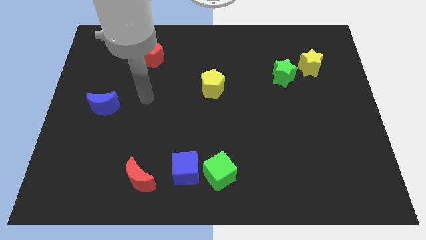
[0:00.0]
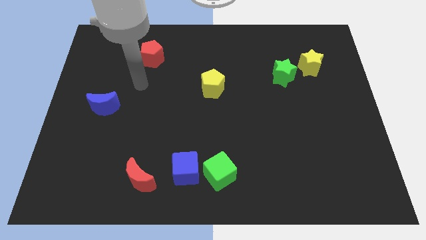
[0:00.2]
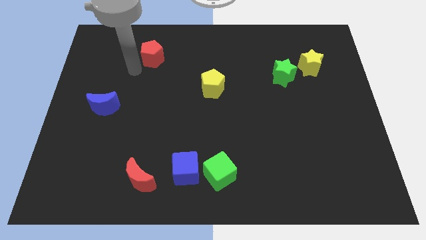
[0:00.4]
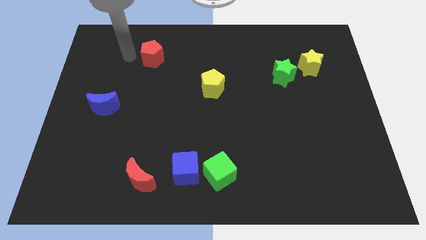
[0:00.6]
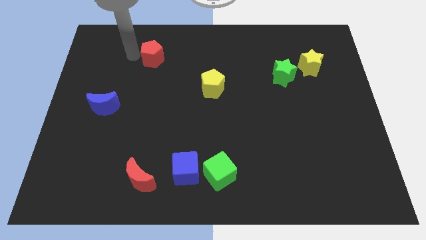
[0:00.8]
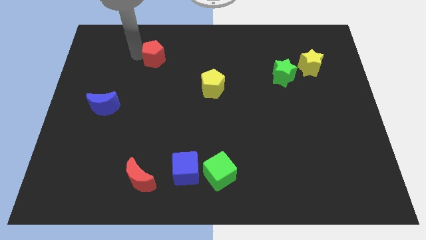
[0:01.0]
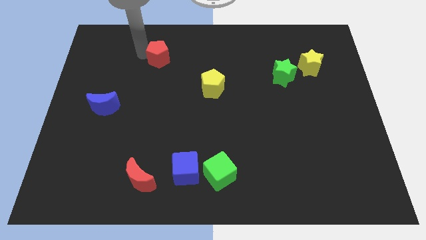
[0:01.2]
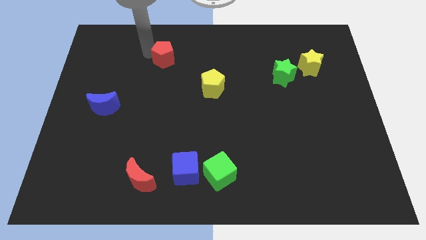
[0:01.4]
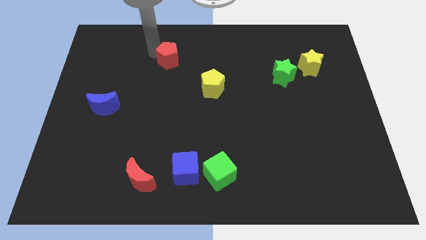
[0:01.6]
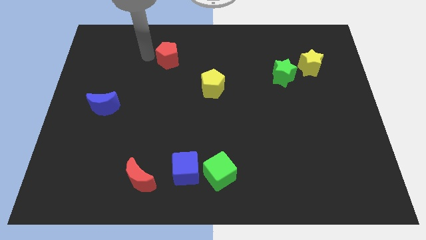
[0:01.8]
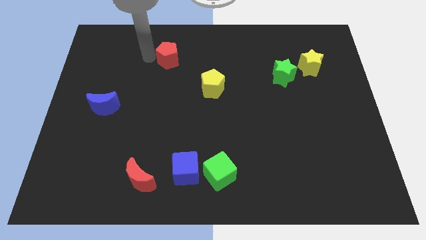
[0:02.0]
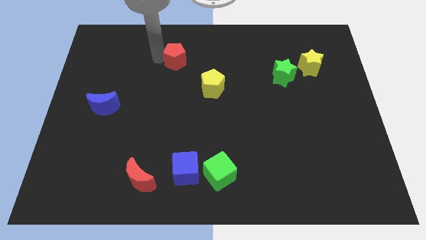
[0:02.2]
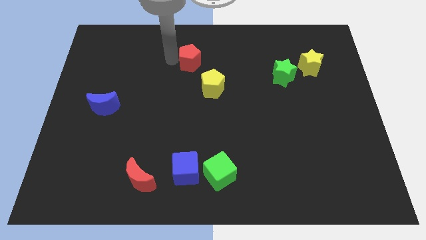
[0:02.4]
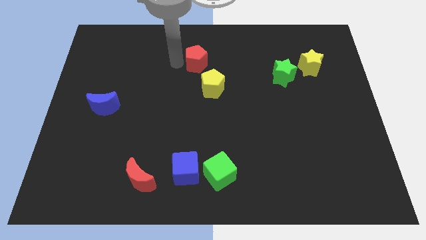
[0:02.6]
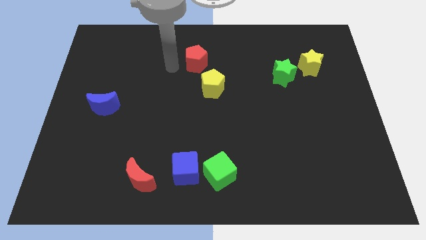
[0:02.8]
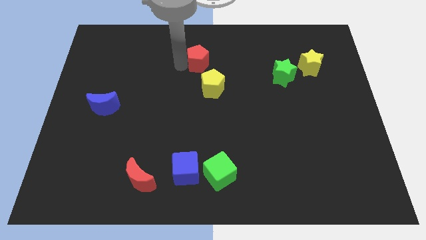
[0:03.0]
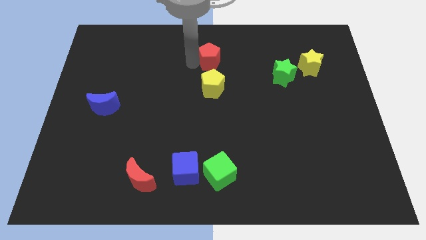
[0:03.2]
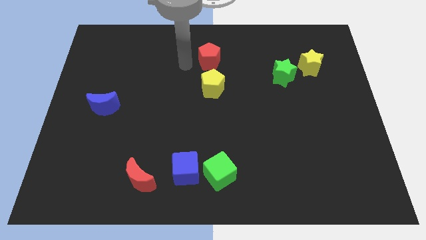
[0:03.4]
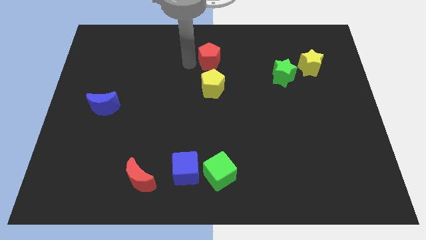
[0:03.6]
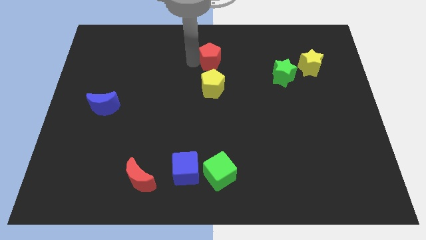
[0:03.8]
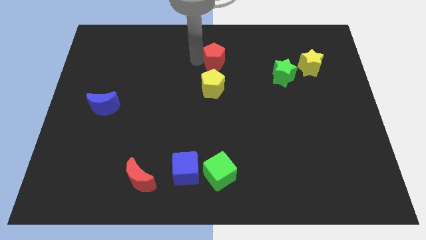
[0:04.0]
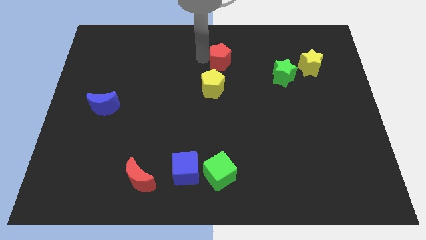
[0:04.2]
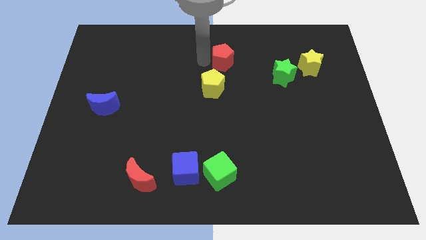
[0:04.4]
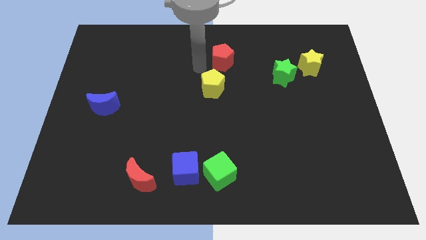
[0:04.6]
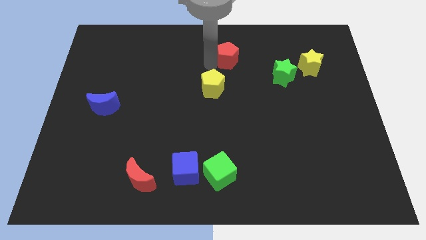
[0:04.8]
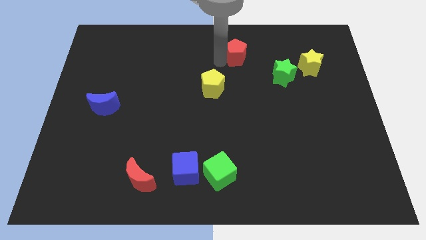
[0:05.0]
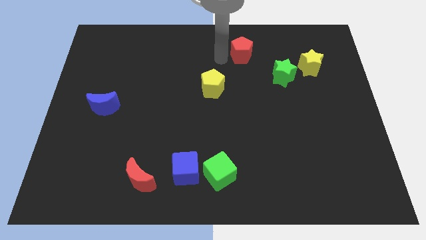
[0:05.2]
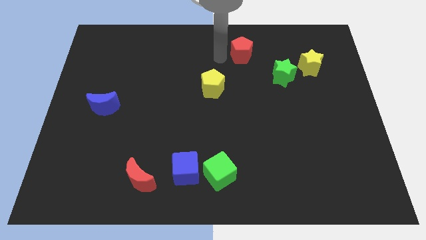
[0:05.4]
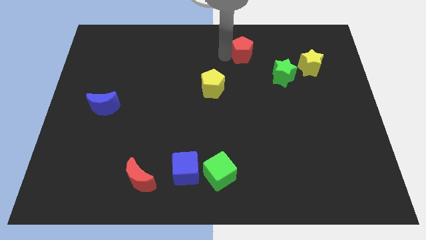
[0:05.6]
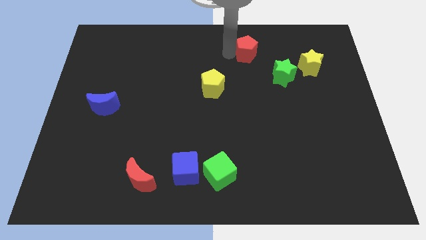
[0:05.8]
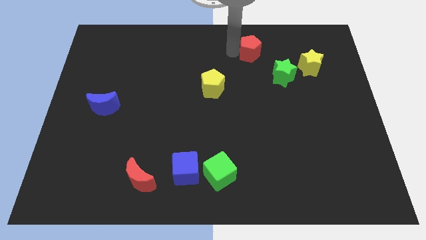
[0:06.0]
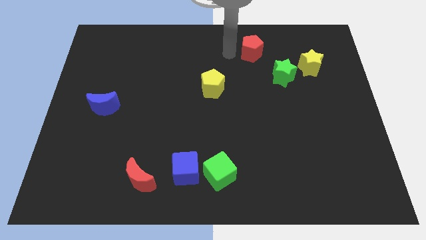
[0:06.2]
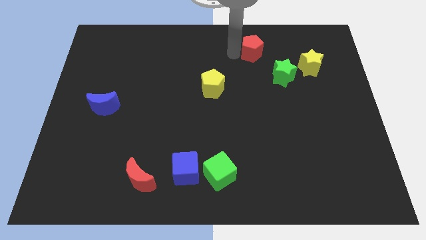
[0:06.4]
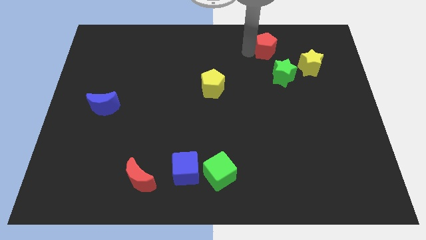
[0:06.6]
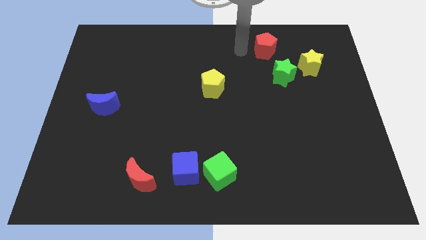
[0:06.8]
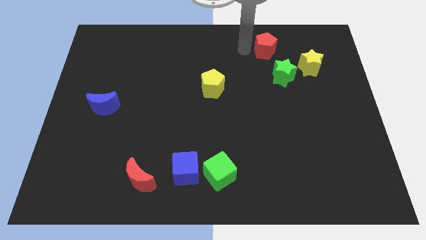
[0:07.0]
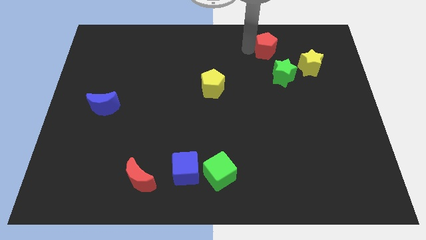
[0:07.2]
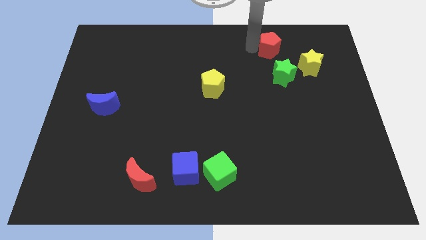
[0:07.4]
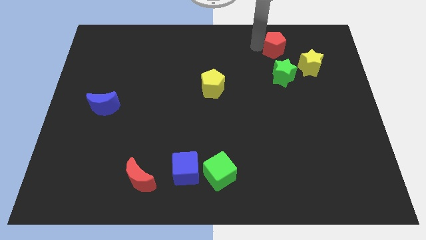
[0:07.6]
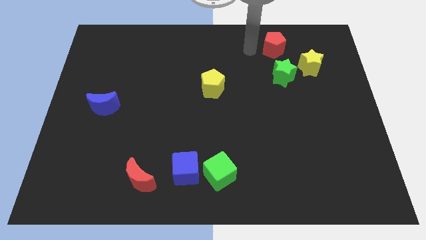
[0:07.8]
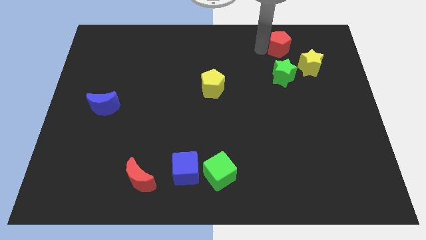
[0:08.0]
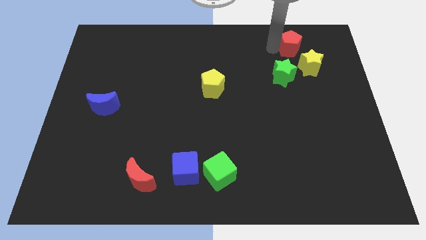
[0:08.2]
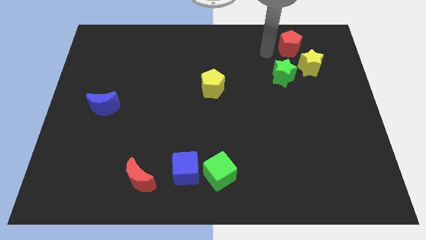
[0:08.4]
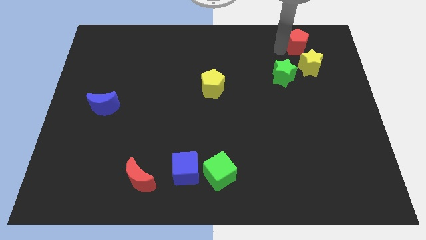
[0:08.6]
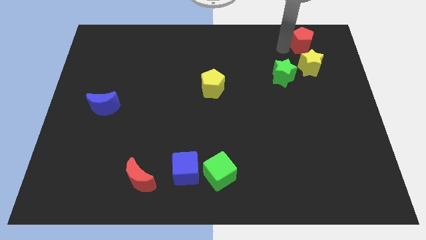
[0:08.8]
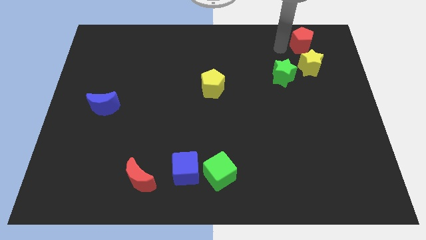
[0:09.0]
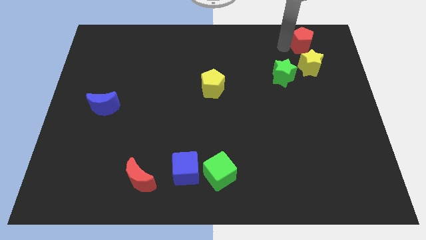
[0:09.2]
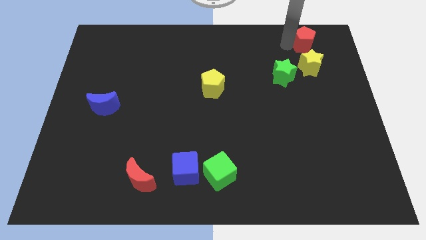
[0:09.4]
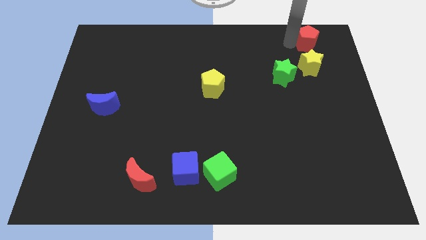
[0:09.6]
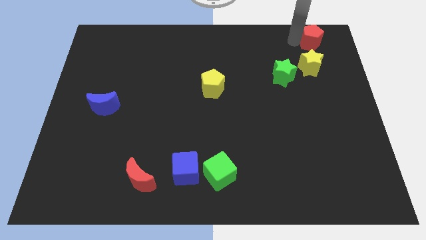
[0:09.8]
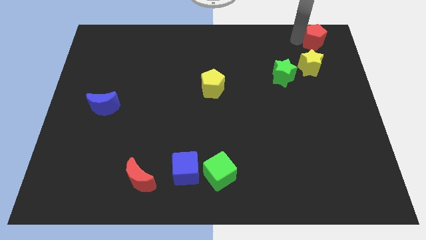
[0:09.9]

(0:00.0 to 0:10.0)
push the red pentagon to the top right

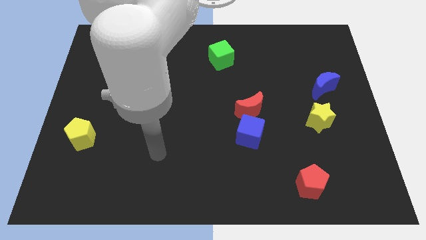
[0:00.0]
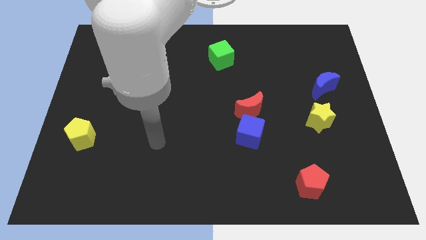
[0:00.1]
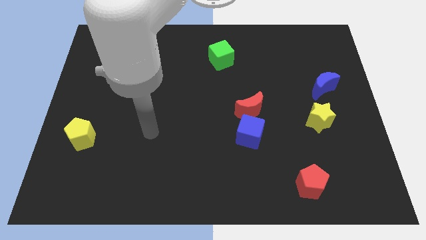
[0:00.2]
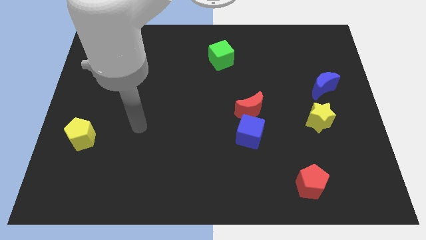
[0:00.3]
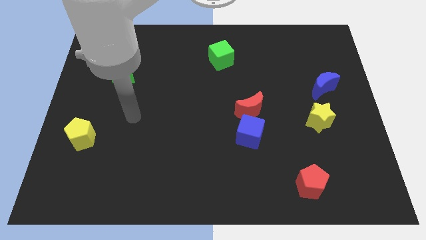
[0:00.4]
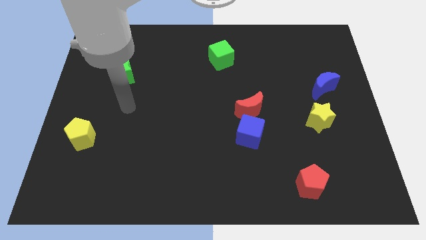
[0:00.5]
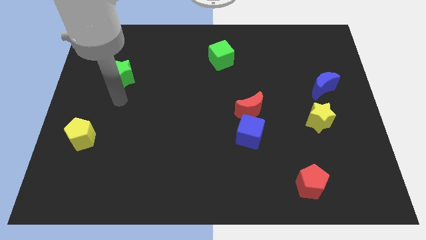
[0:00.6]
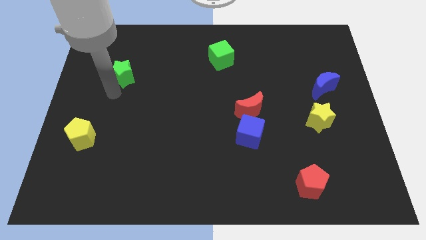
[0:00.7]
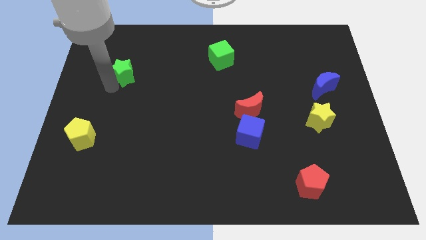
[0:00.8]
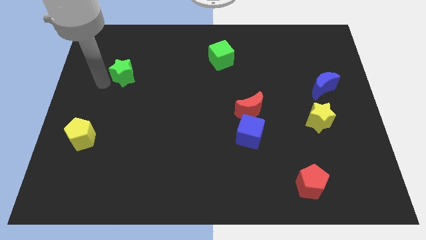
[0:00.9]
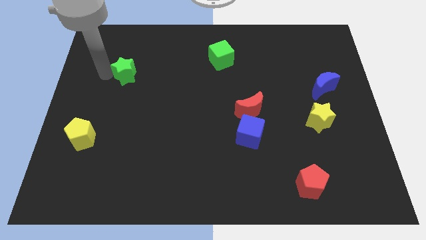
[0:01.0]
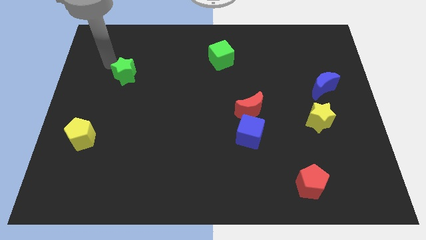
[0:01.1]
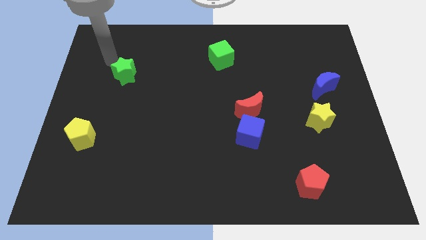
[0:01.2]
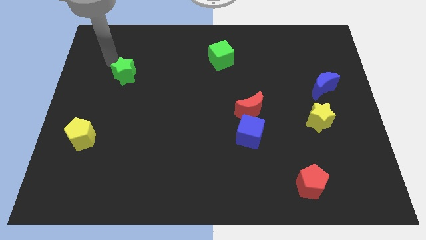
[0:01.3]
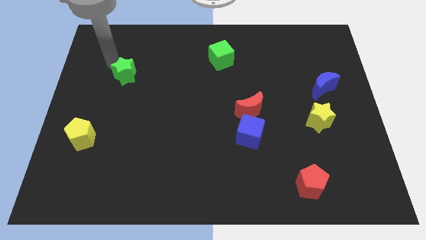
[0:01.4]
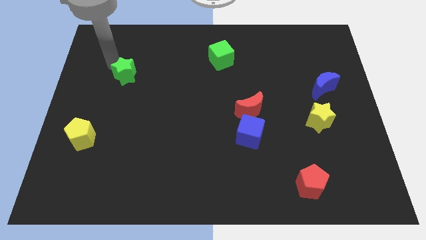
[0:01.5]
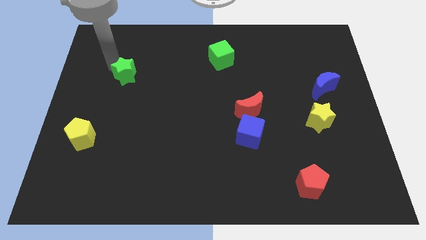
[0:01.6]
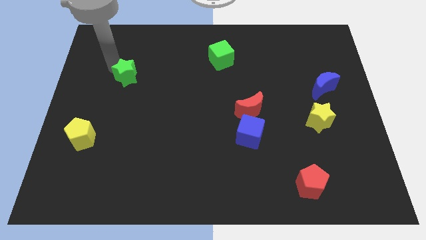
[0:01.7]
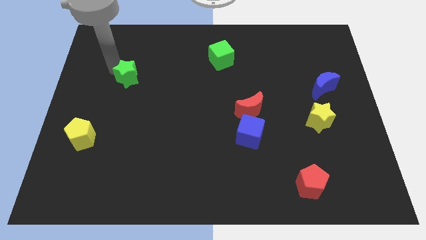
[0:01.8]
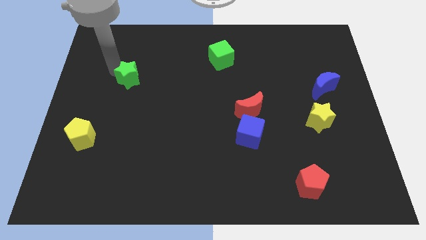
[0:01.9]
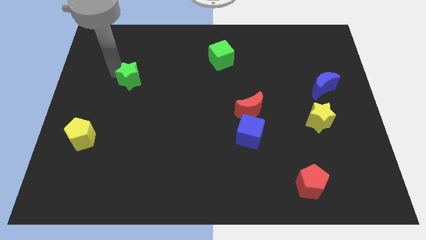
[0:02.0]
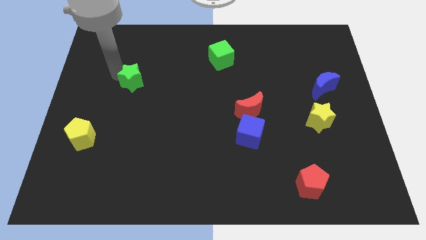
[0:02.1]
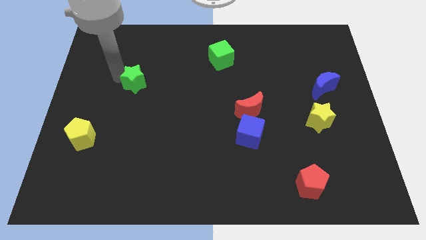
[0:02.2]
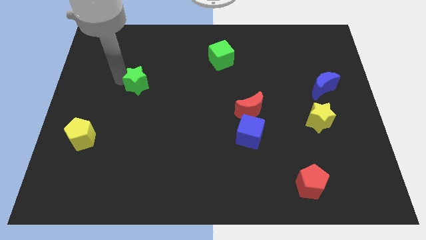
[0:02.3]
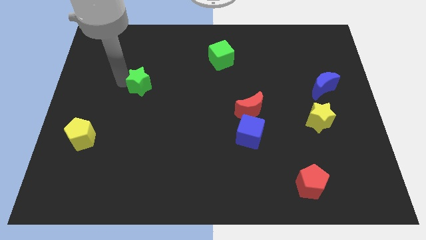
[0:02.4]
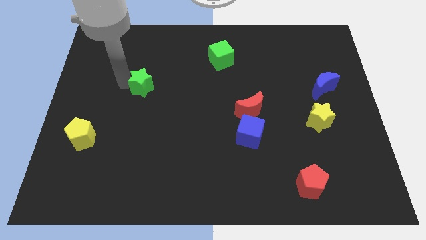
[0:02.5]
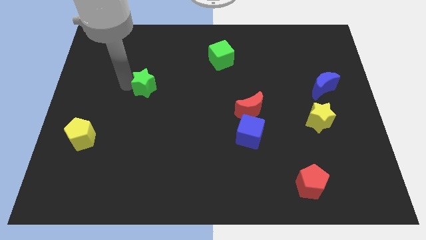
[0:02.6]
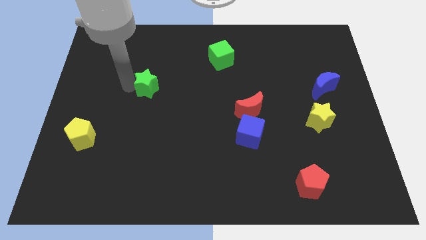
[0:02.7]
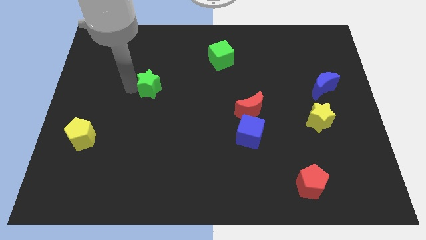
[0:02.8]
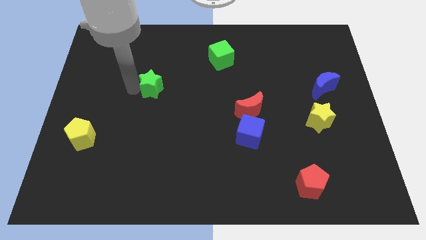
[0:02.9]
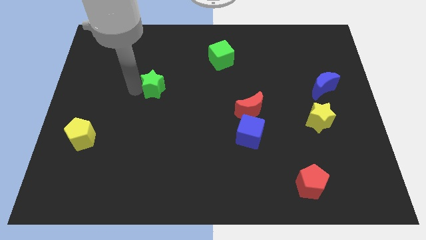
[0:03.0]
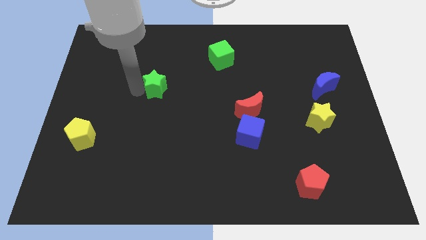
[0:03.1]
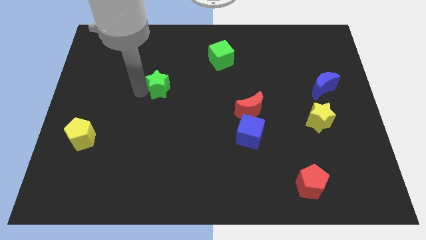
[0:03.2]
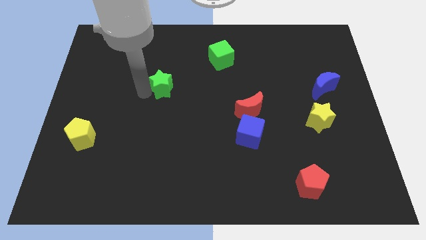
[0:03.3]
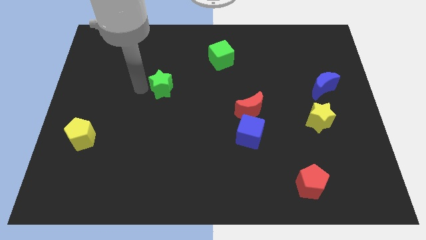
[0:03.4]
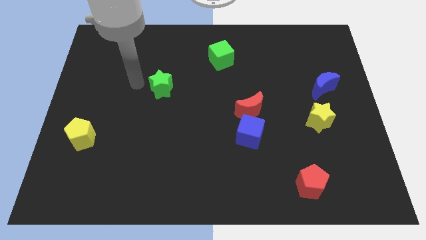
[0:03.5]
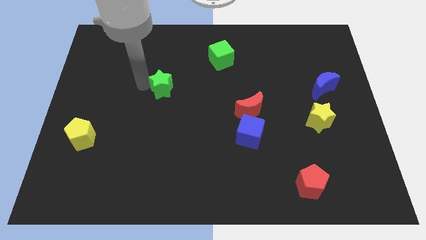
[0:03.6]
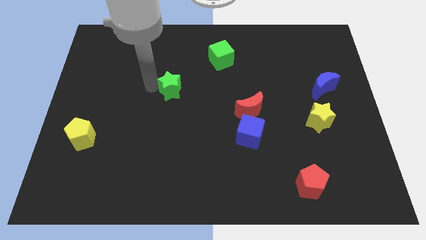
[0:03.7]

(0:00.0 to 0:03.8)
slide the green star to the middle
